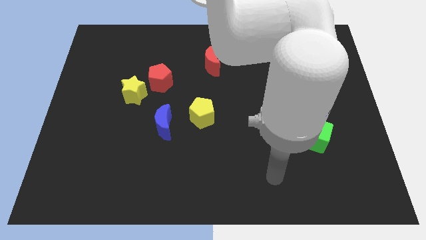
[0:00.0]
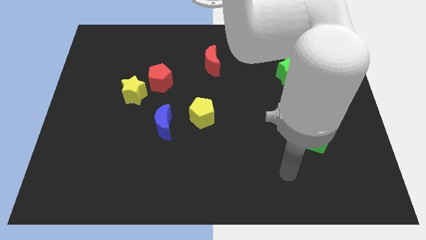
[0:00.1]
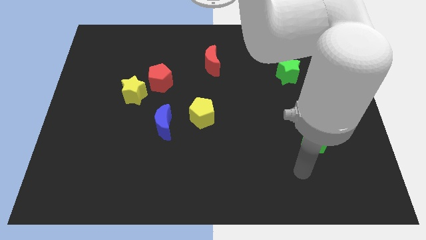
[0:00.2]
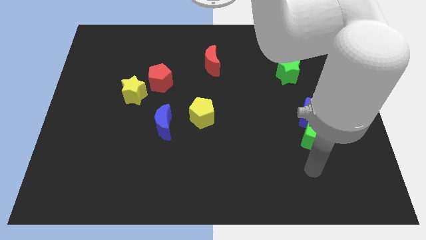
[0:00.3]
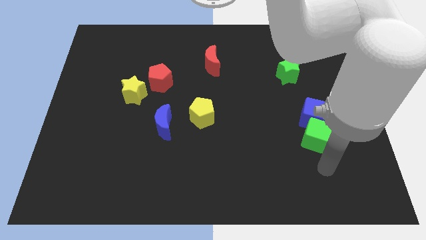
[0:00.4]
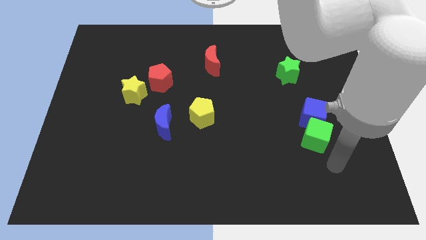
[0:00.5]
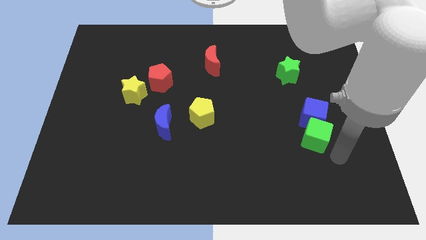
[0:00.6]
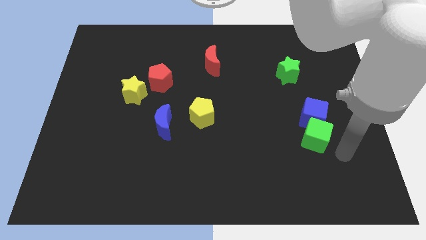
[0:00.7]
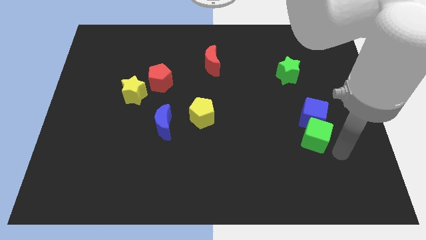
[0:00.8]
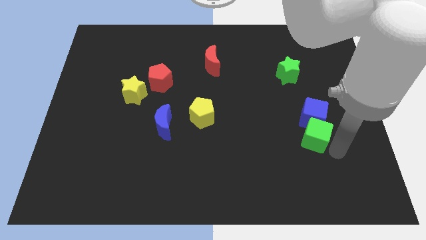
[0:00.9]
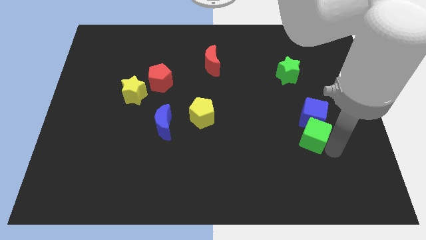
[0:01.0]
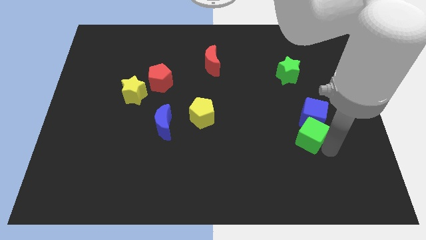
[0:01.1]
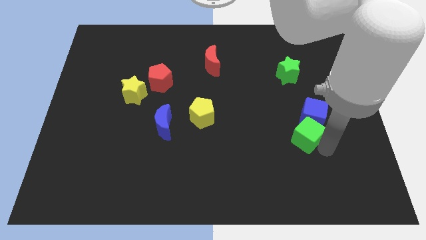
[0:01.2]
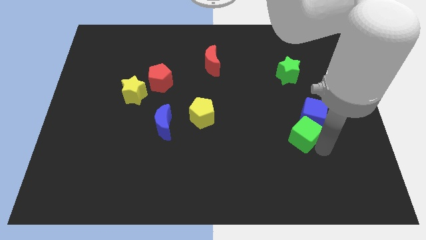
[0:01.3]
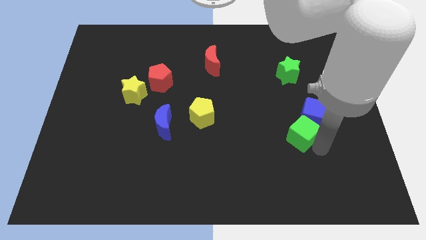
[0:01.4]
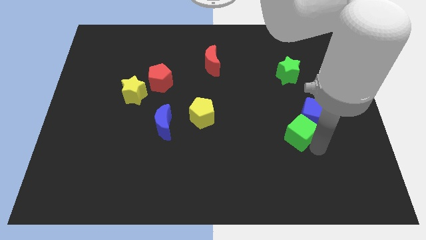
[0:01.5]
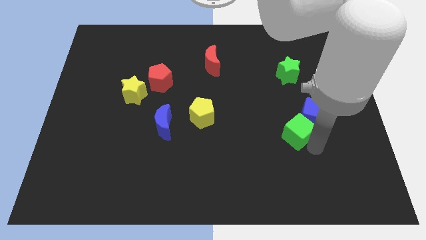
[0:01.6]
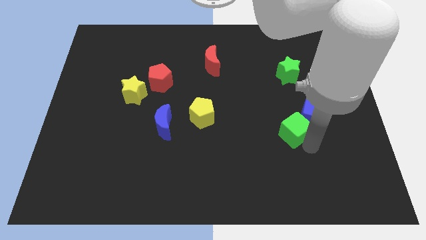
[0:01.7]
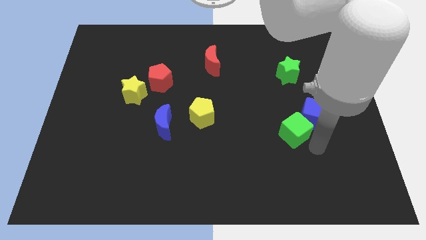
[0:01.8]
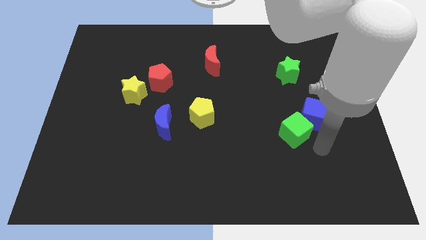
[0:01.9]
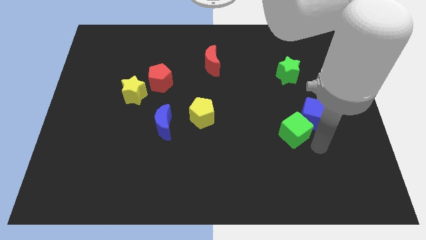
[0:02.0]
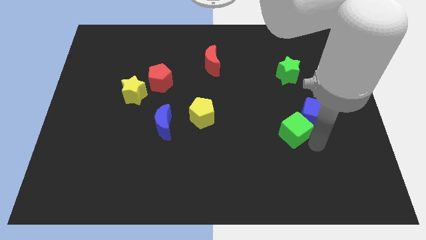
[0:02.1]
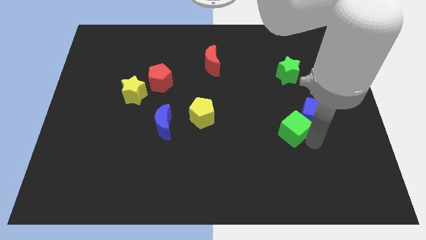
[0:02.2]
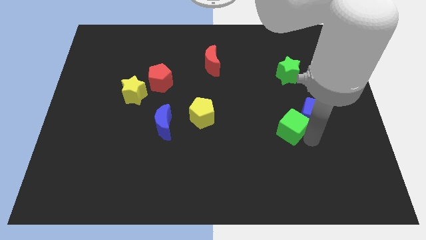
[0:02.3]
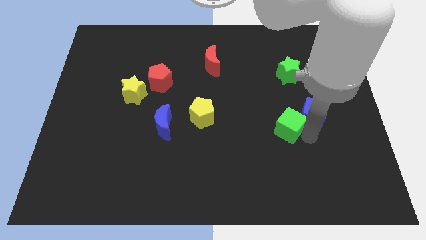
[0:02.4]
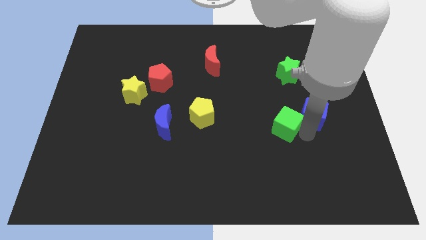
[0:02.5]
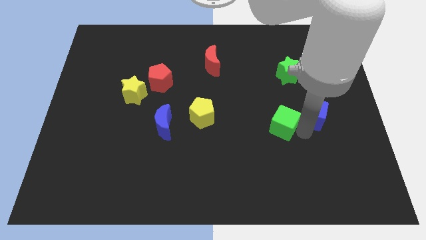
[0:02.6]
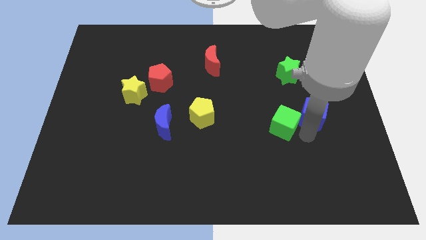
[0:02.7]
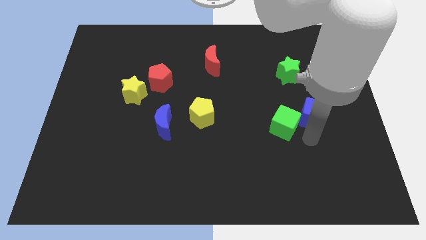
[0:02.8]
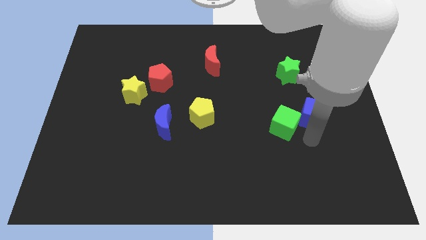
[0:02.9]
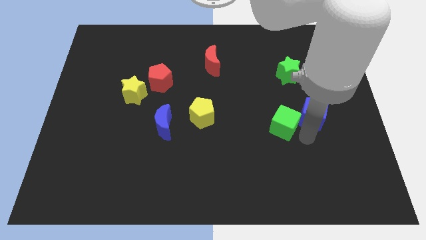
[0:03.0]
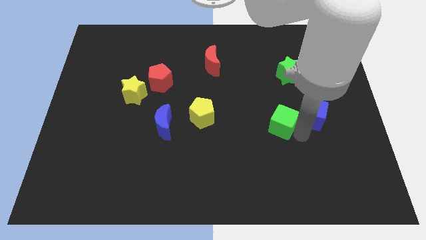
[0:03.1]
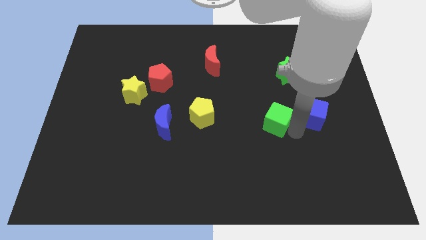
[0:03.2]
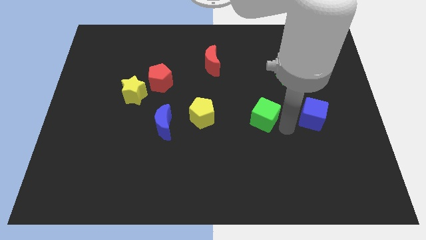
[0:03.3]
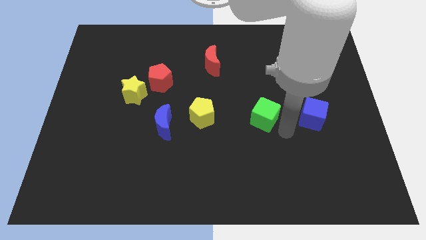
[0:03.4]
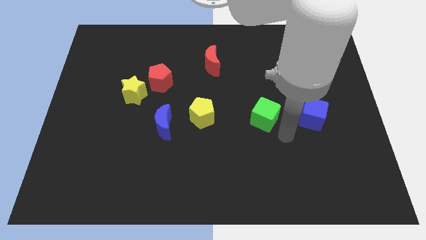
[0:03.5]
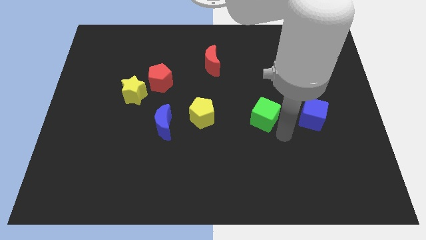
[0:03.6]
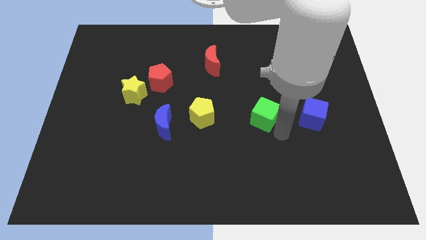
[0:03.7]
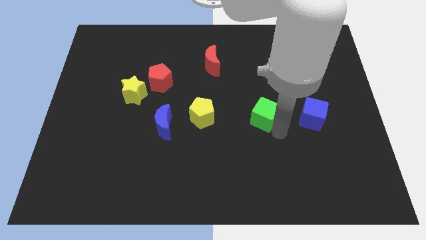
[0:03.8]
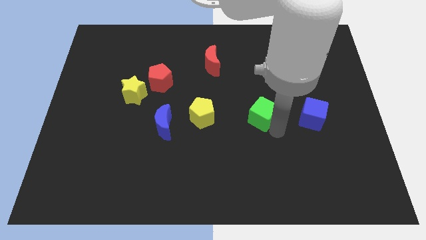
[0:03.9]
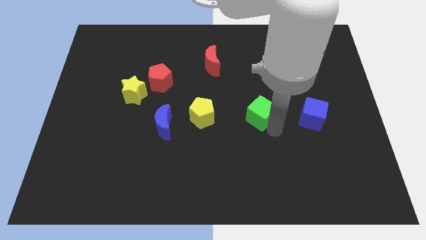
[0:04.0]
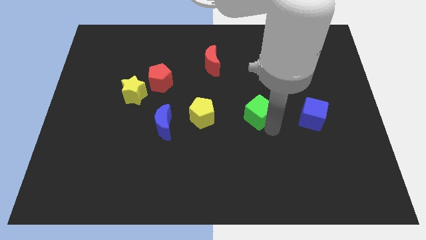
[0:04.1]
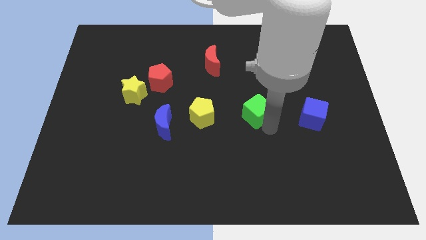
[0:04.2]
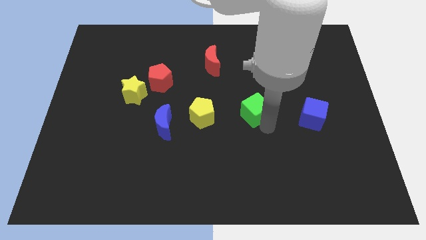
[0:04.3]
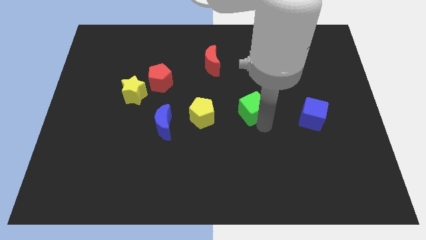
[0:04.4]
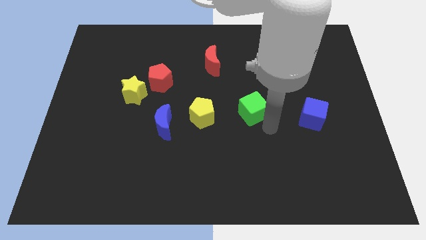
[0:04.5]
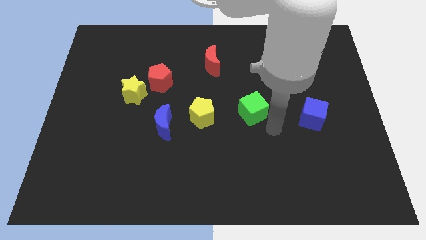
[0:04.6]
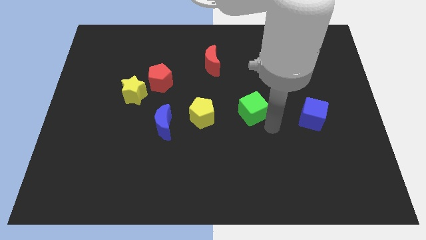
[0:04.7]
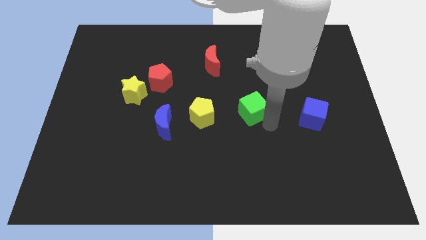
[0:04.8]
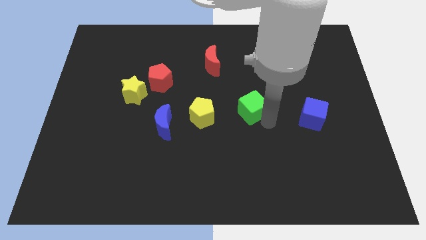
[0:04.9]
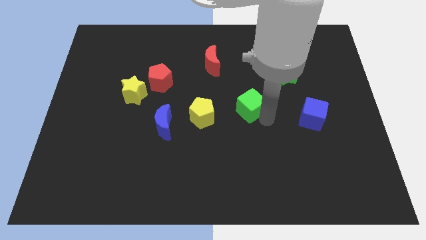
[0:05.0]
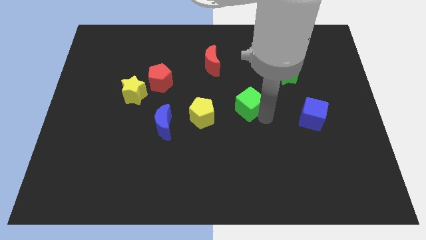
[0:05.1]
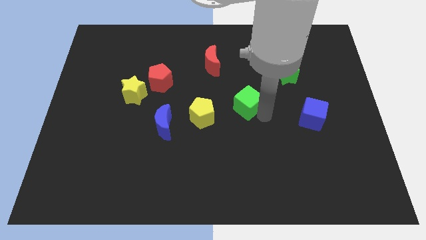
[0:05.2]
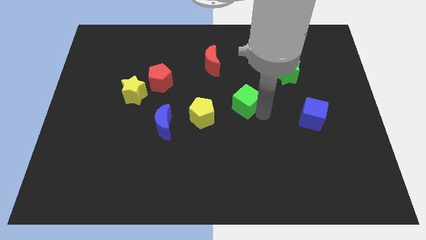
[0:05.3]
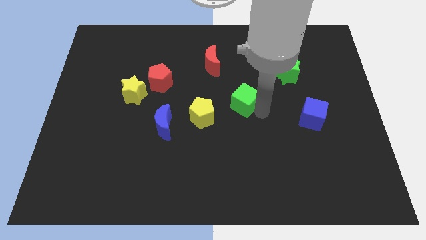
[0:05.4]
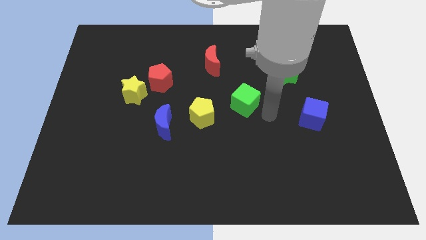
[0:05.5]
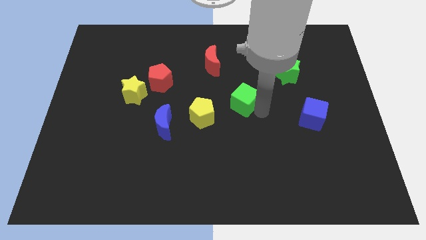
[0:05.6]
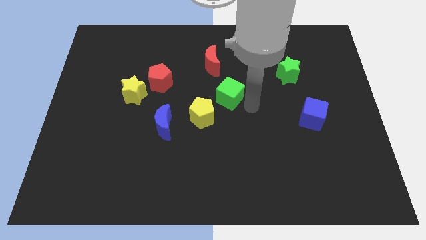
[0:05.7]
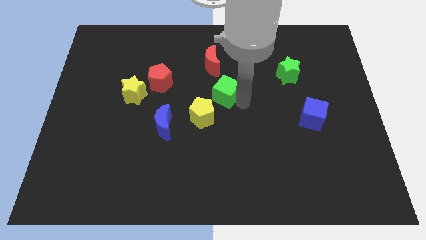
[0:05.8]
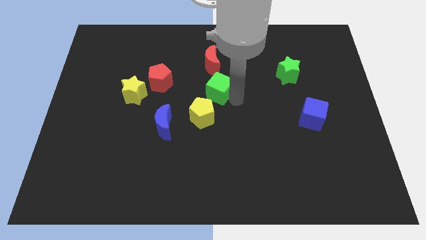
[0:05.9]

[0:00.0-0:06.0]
move the green cube to the top of the yellow pentagon

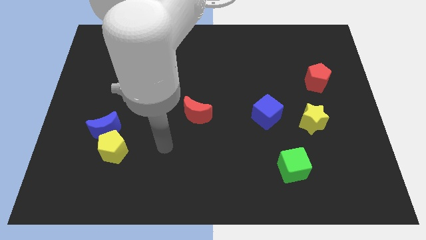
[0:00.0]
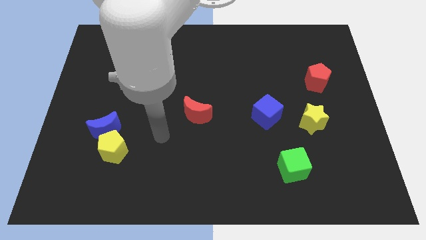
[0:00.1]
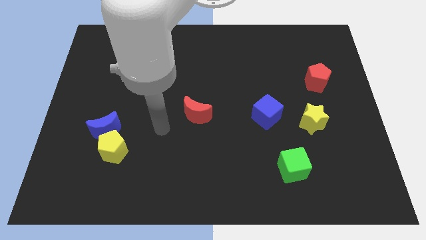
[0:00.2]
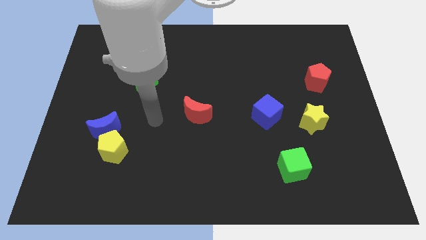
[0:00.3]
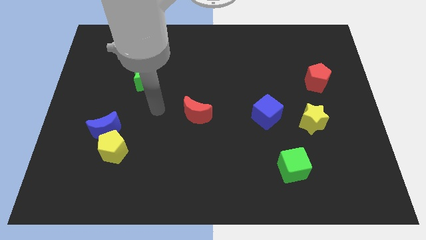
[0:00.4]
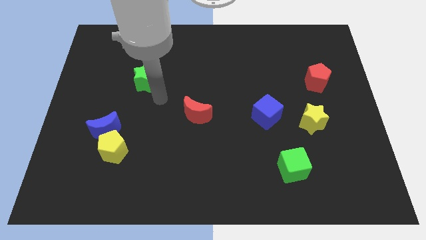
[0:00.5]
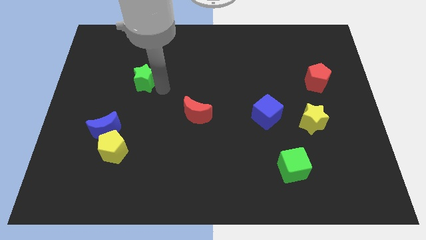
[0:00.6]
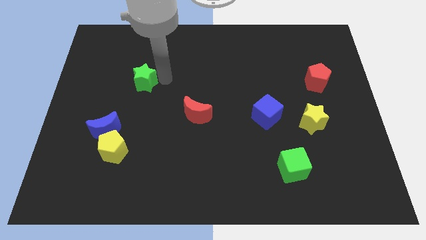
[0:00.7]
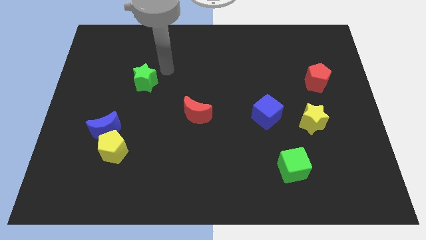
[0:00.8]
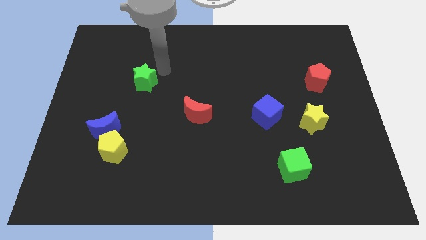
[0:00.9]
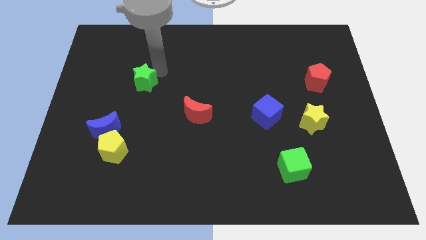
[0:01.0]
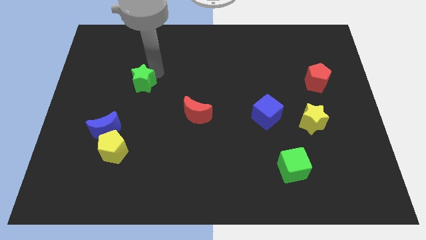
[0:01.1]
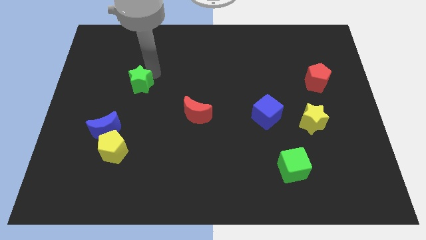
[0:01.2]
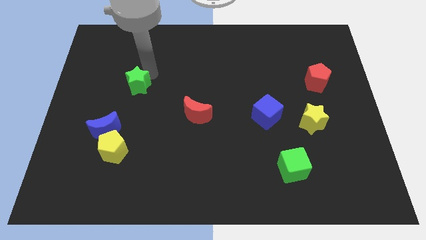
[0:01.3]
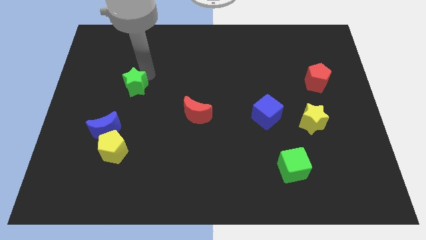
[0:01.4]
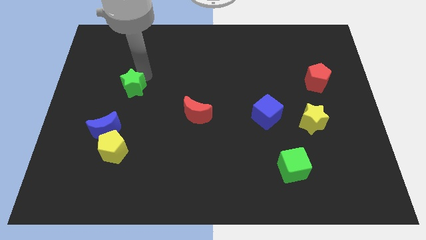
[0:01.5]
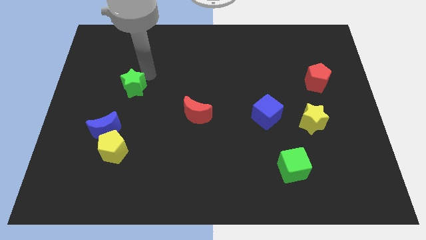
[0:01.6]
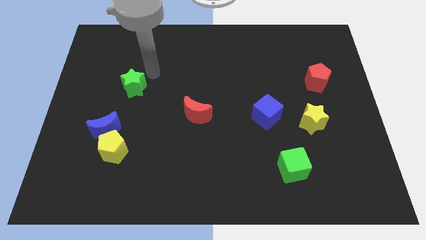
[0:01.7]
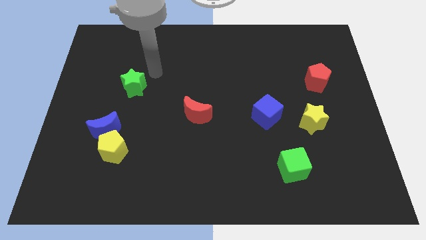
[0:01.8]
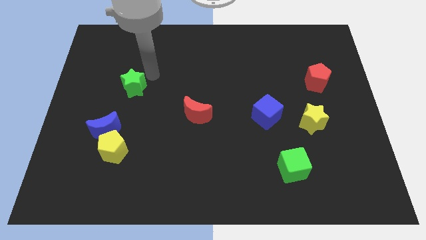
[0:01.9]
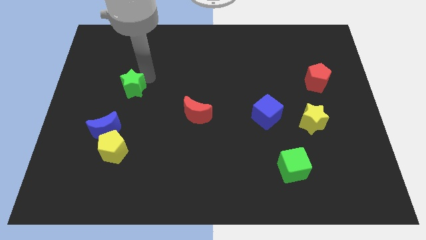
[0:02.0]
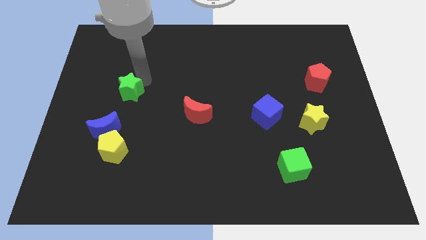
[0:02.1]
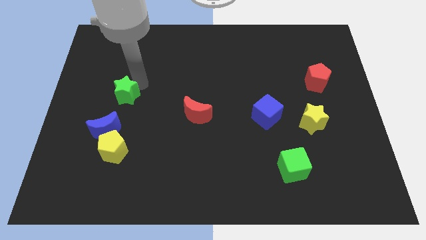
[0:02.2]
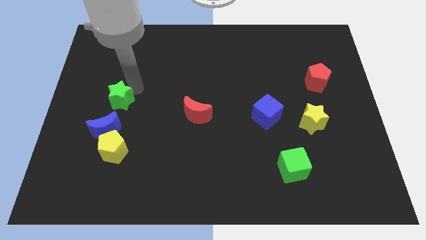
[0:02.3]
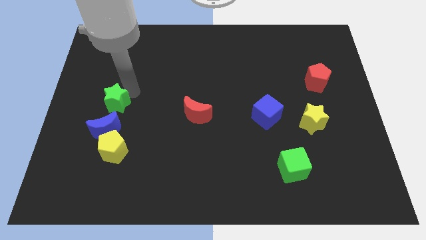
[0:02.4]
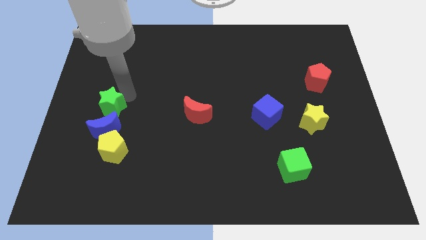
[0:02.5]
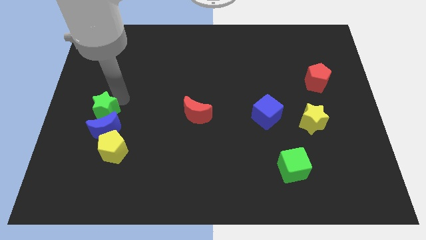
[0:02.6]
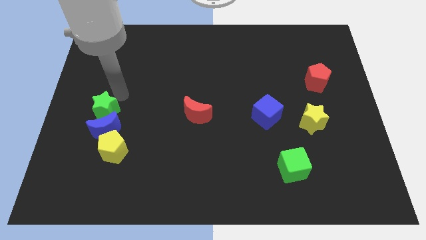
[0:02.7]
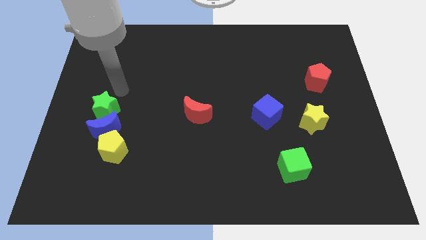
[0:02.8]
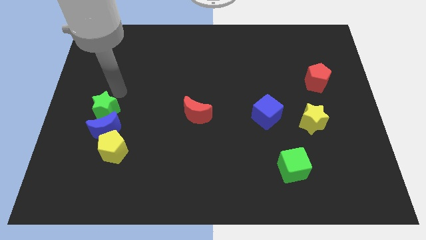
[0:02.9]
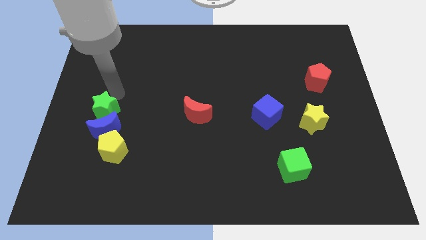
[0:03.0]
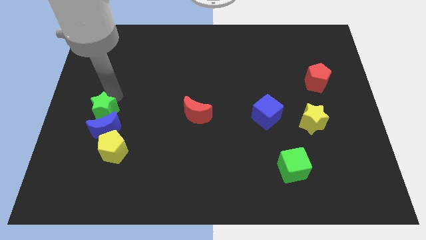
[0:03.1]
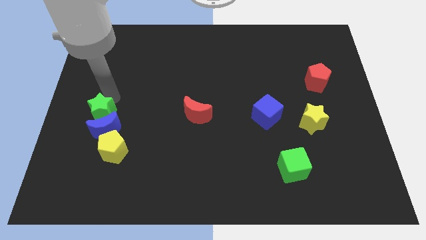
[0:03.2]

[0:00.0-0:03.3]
put the green star to the top left side of the yellow pentagon
